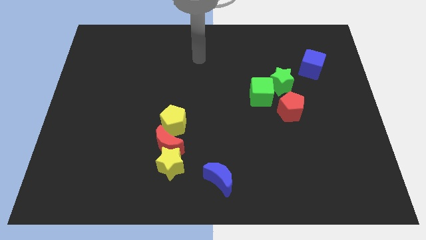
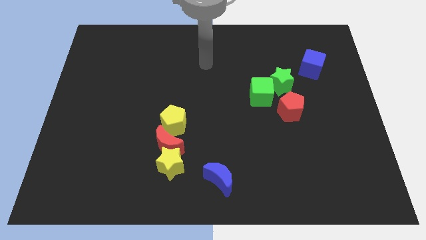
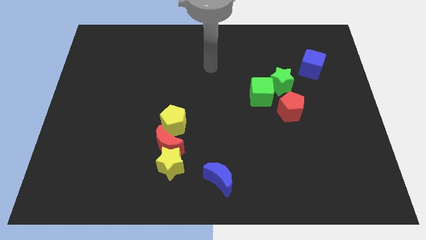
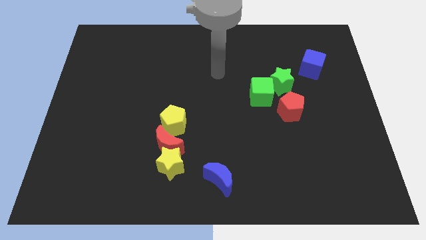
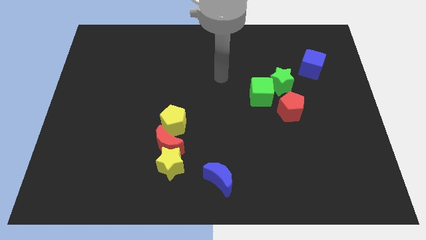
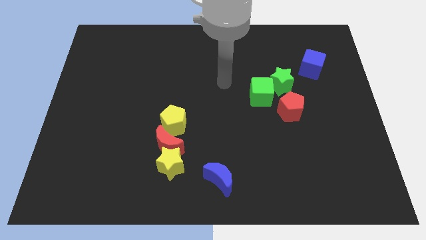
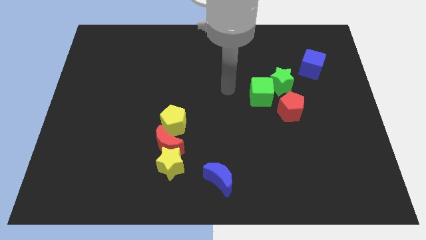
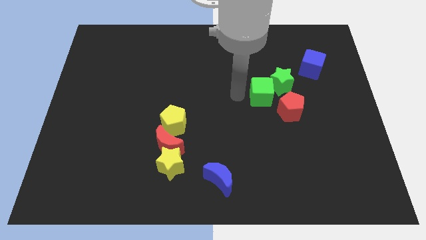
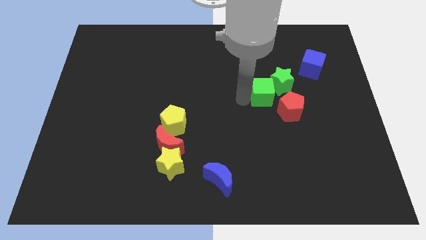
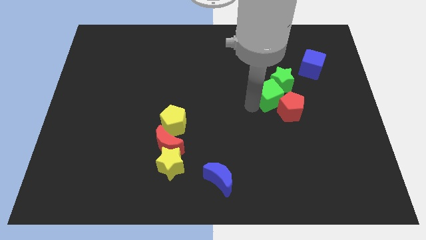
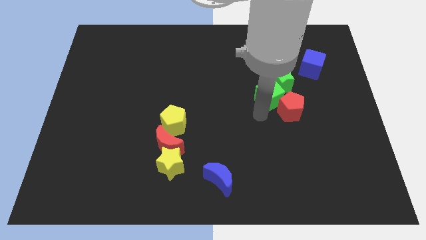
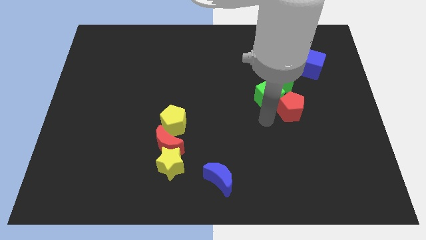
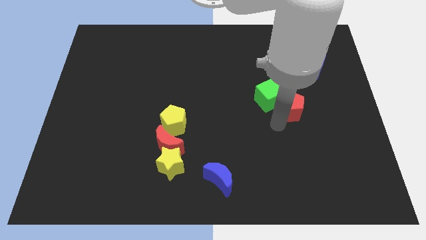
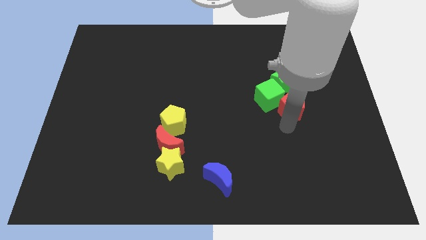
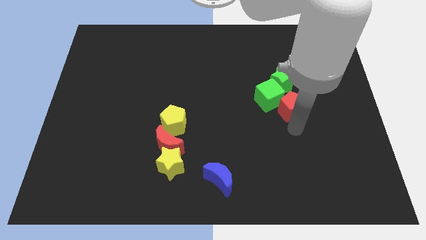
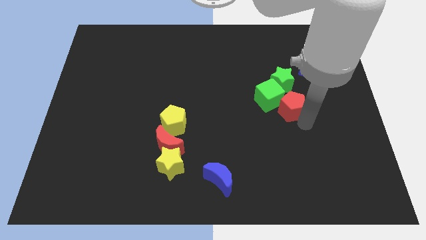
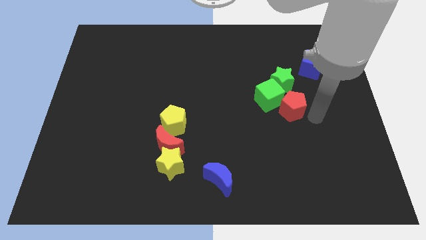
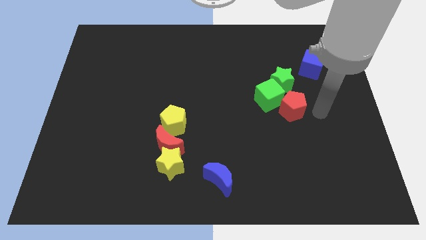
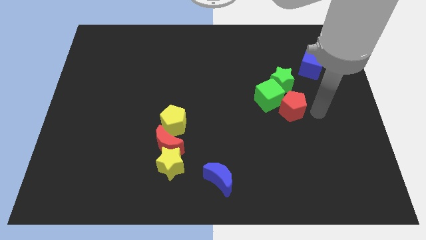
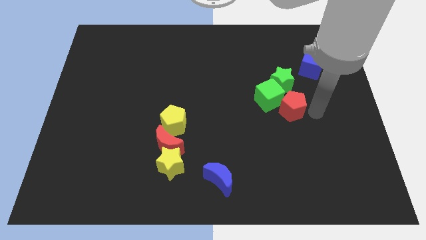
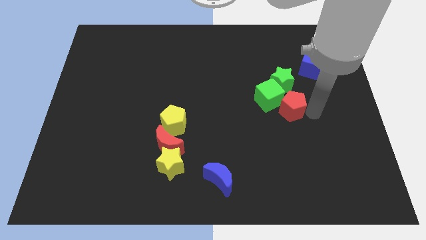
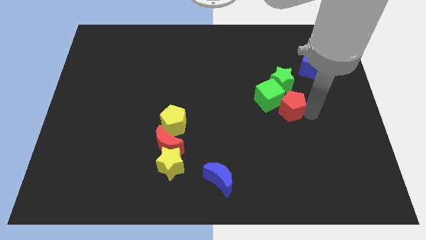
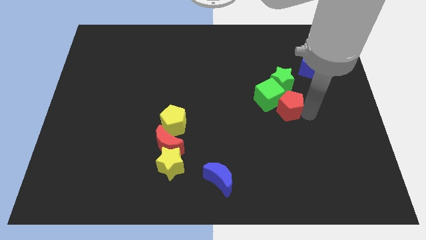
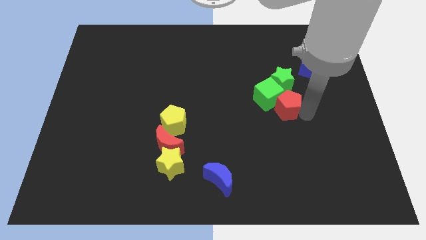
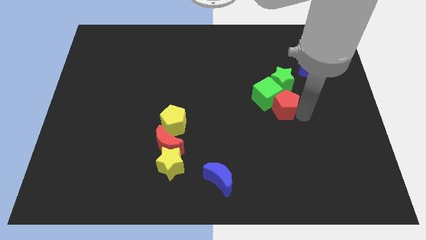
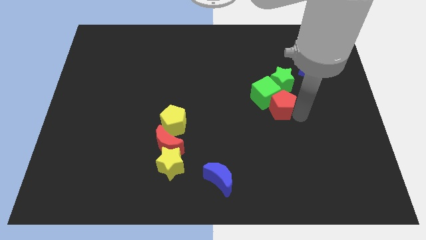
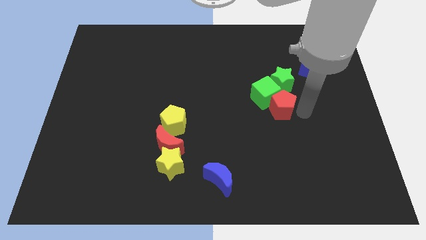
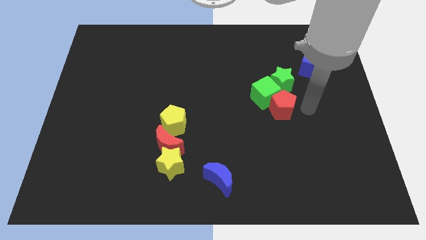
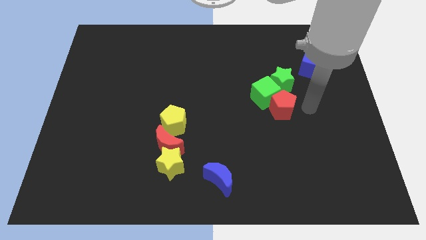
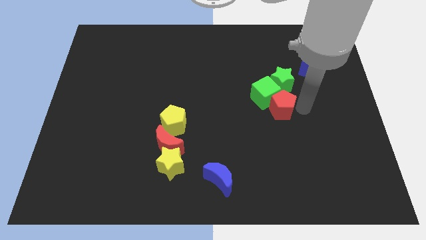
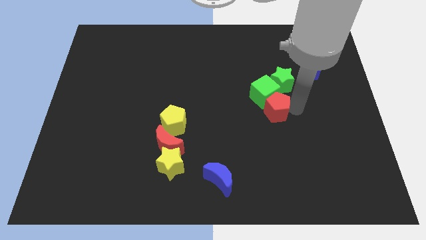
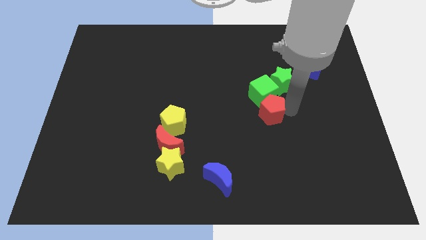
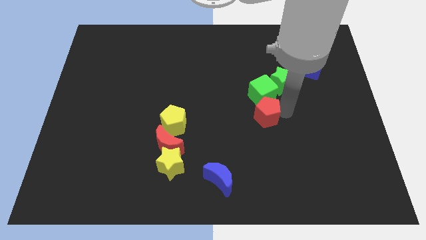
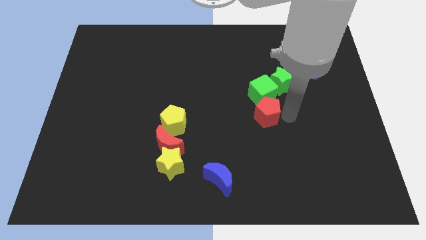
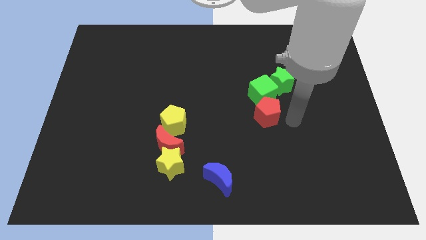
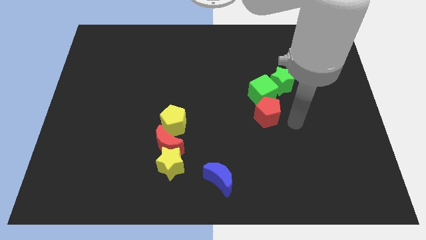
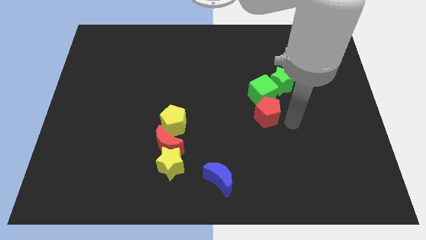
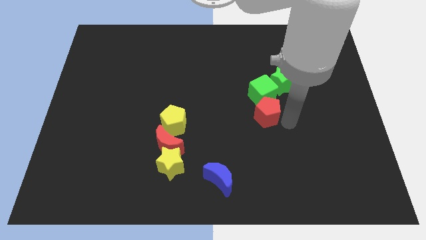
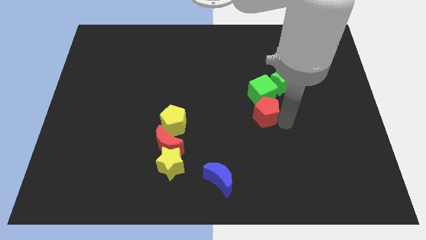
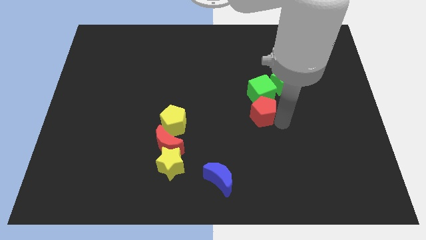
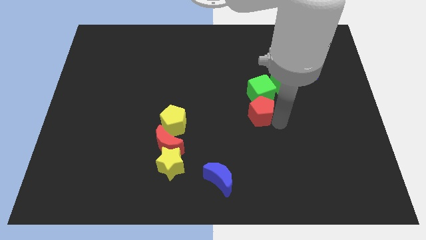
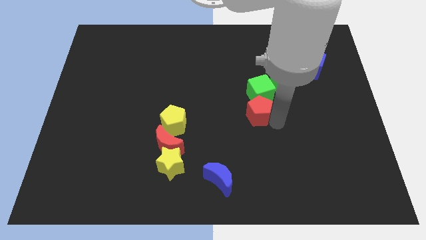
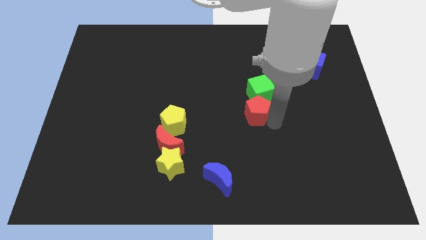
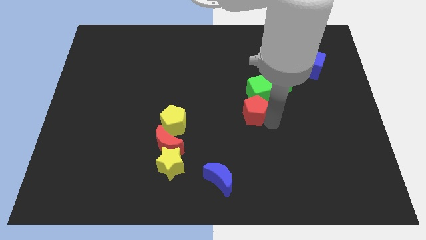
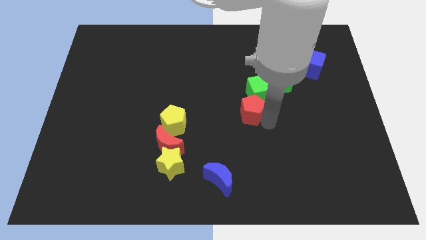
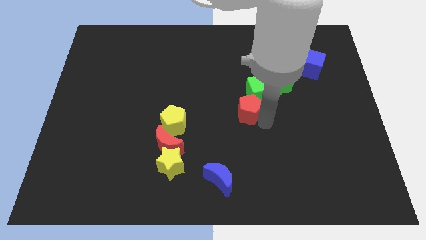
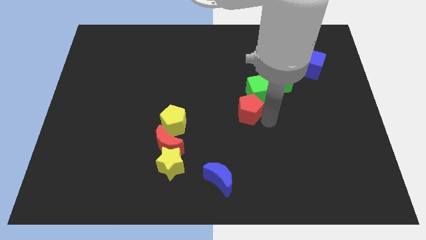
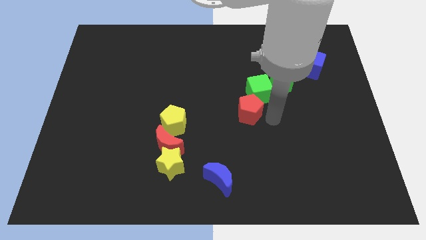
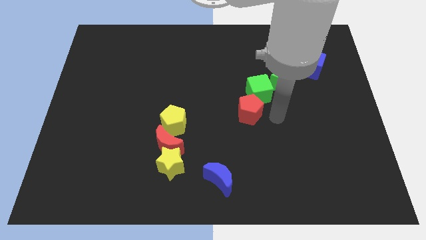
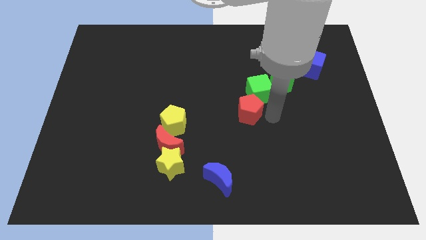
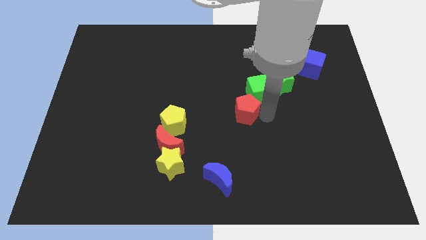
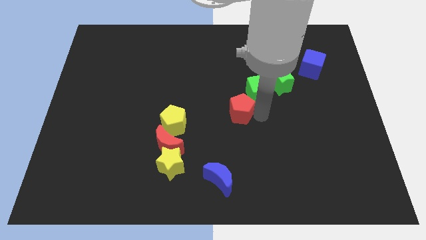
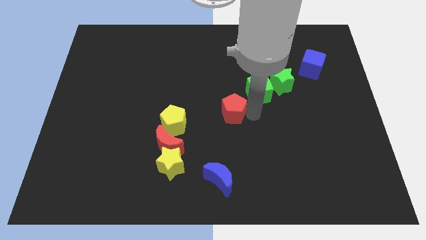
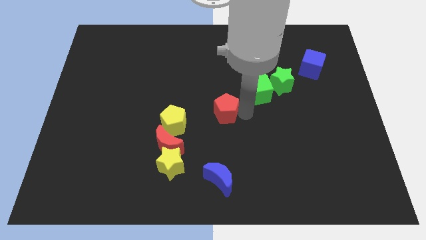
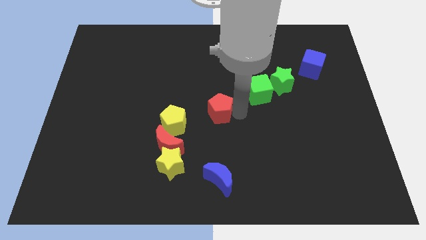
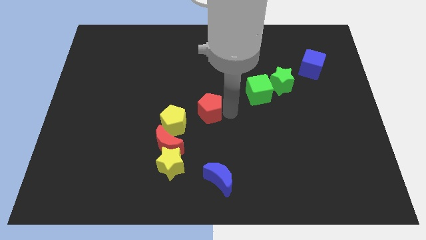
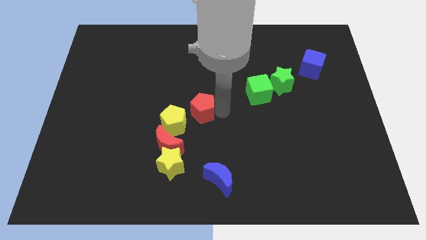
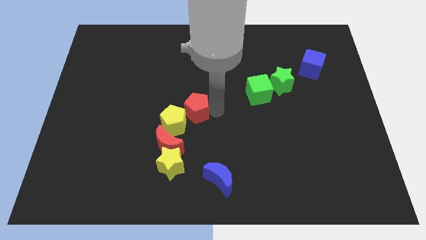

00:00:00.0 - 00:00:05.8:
put the red pentagon towards the yellow pentagon

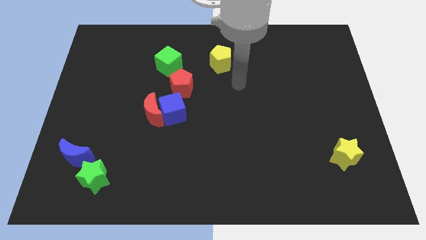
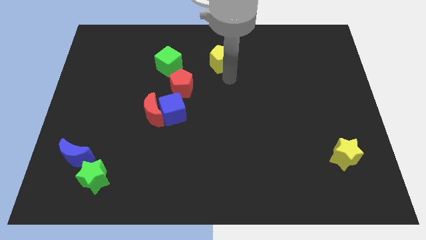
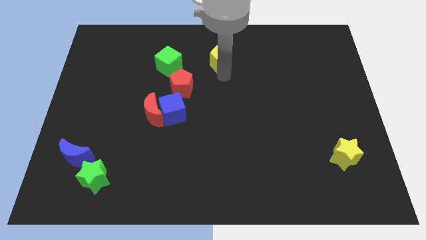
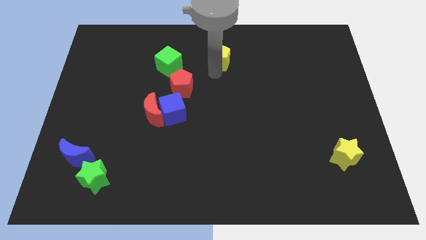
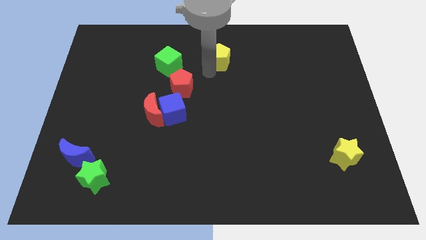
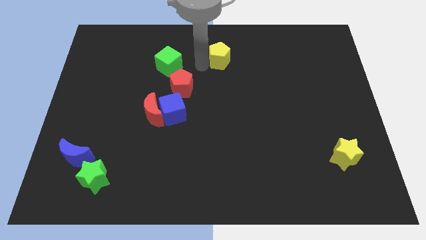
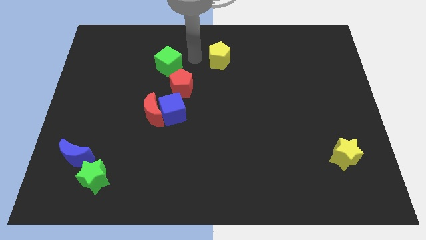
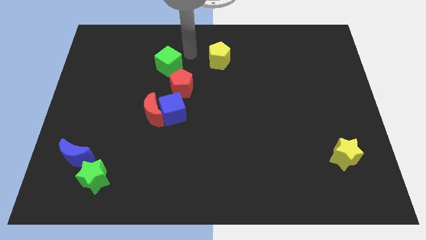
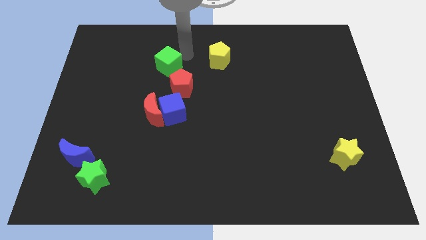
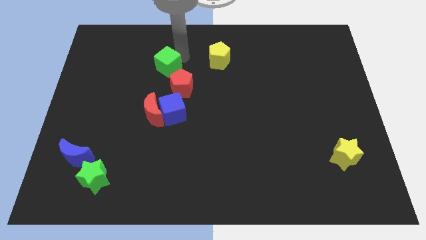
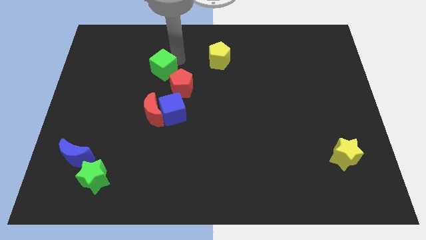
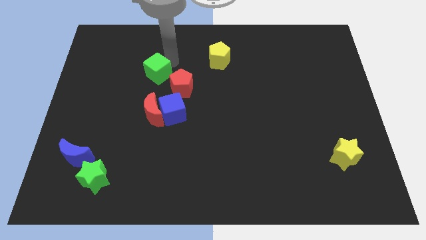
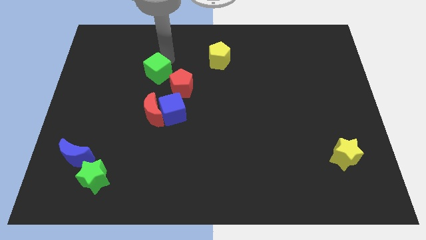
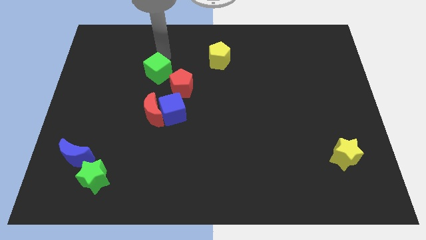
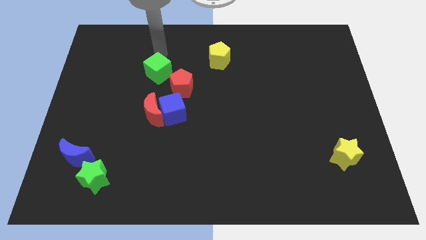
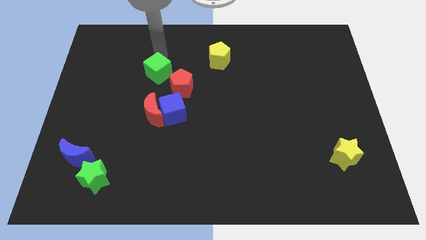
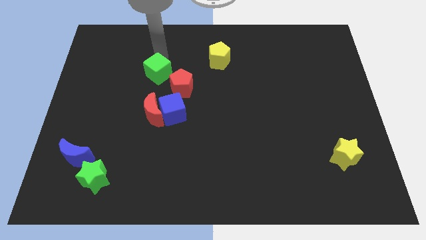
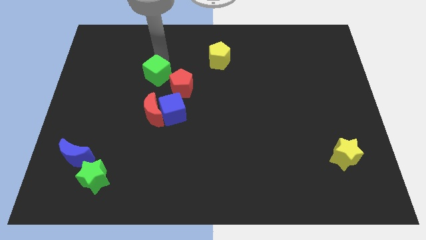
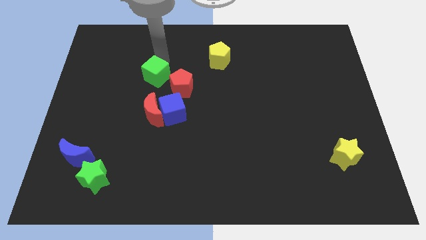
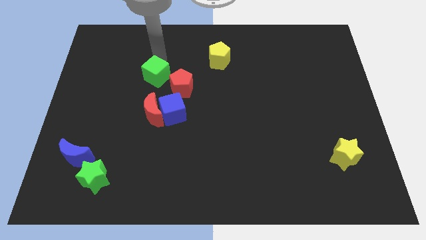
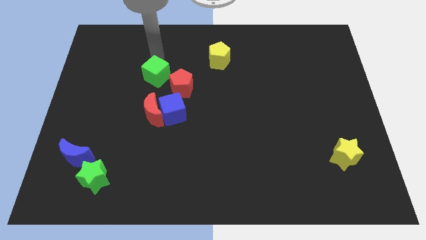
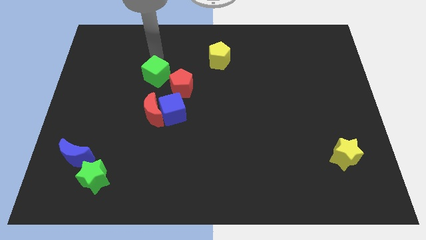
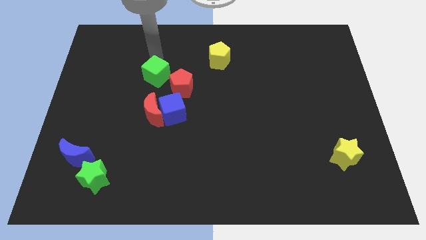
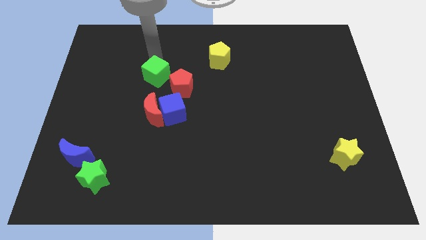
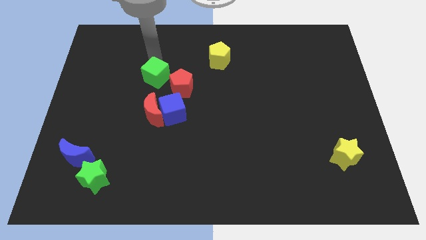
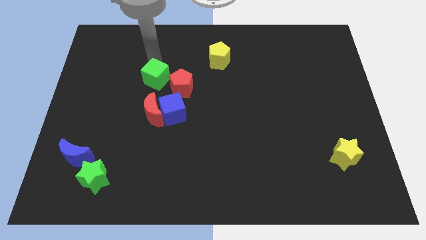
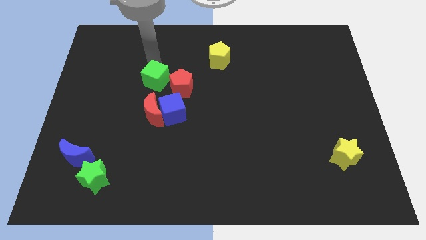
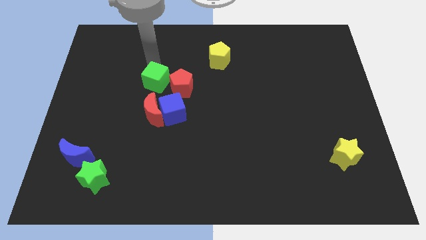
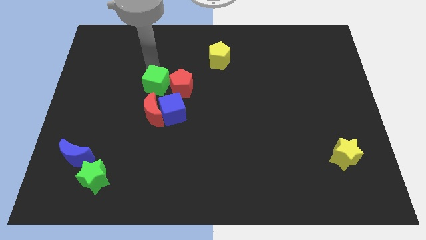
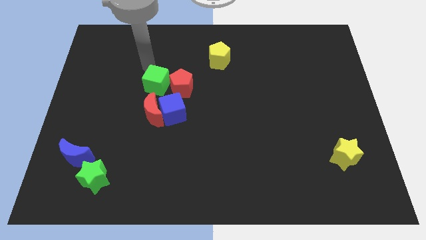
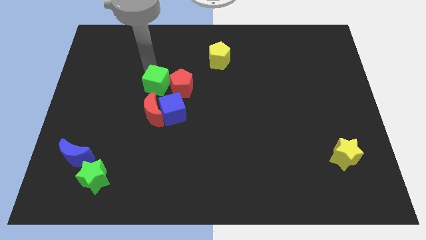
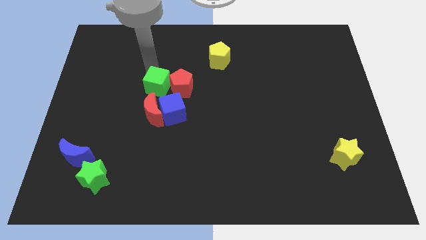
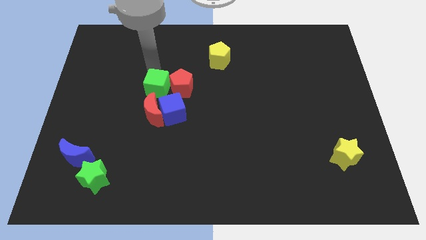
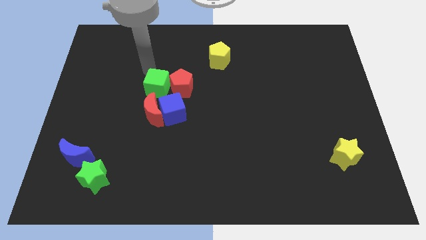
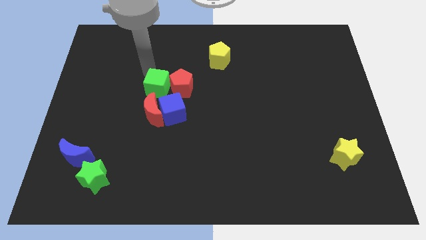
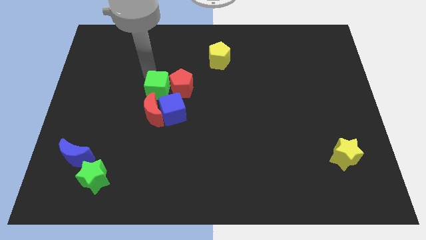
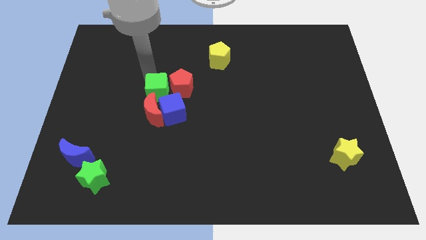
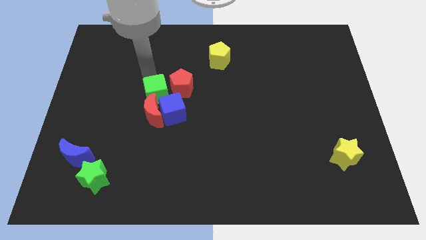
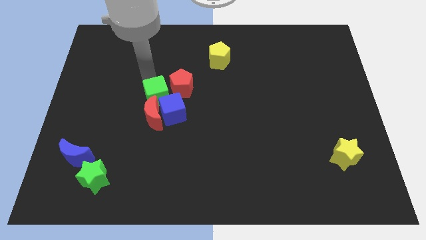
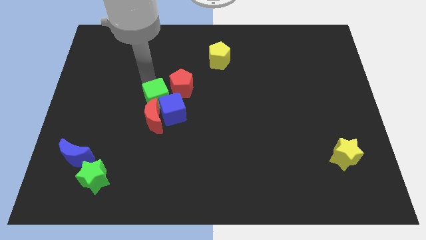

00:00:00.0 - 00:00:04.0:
put the green cube close to the blue cube
